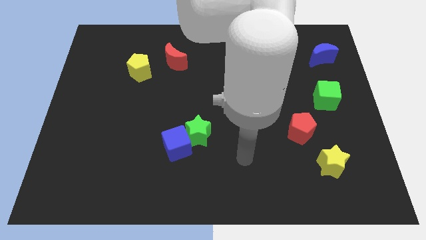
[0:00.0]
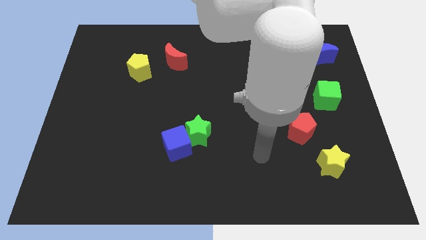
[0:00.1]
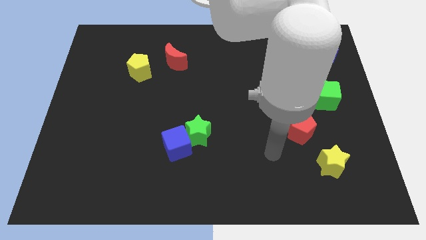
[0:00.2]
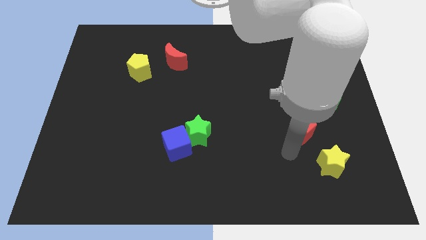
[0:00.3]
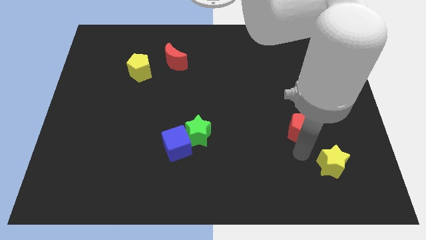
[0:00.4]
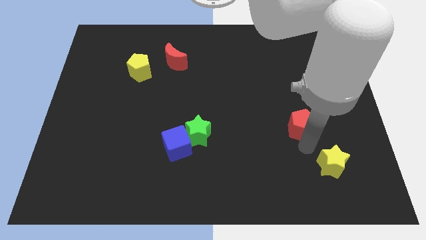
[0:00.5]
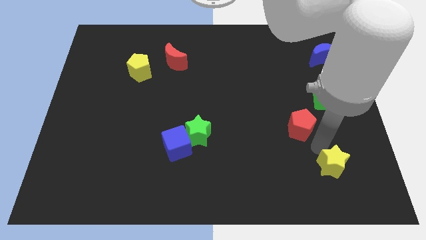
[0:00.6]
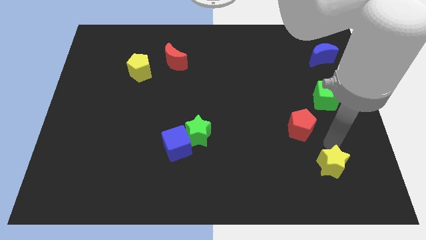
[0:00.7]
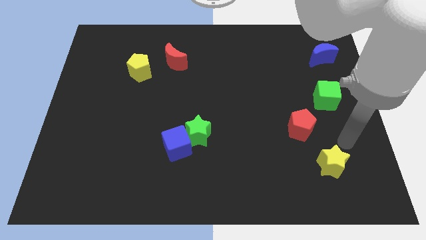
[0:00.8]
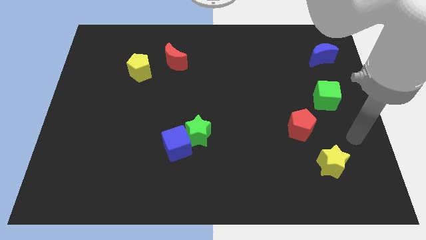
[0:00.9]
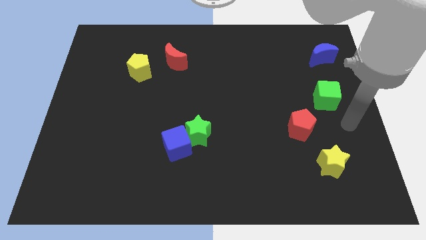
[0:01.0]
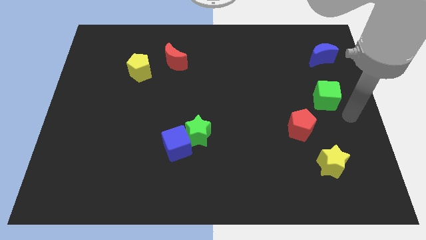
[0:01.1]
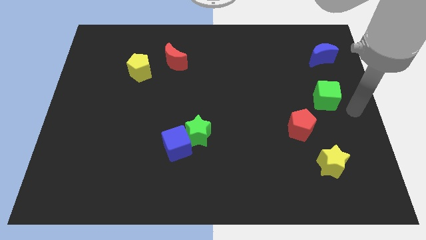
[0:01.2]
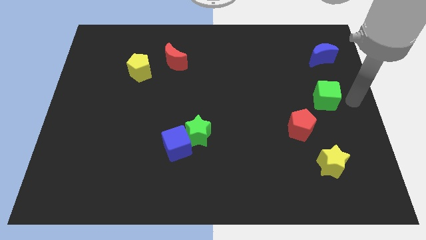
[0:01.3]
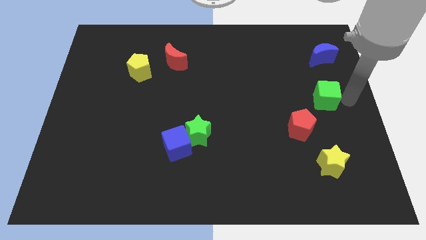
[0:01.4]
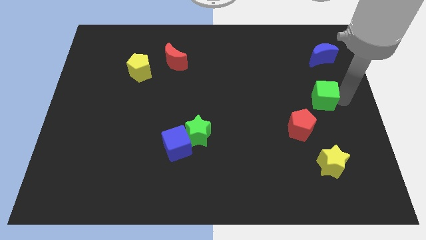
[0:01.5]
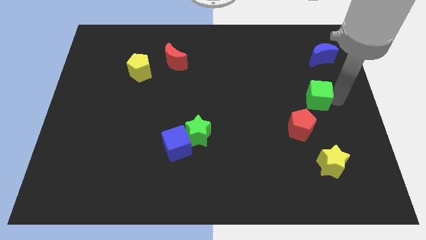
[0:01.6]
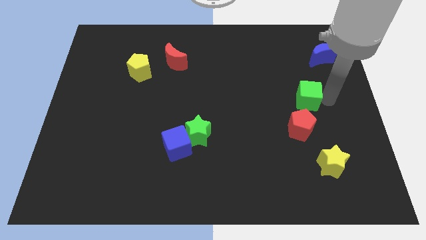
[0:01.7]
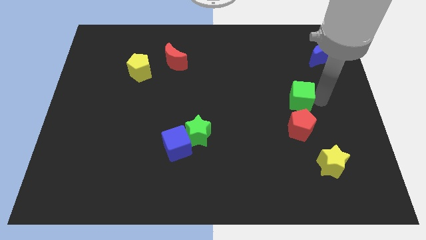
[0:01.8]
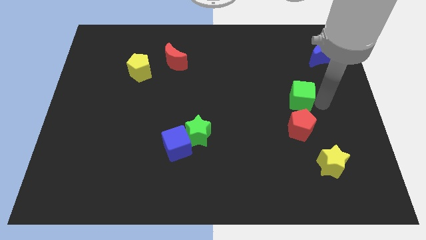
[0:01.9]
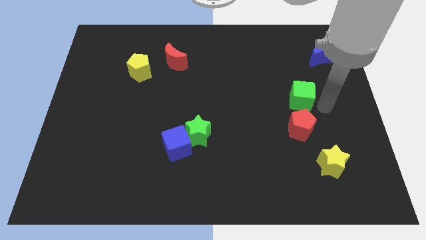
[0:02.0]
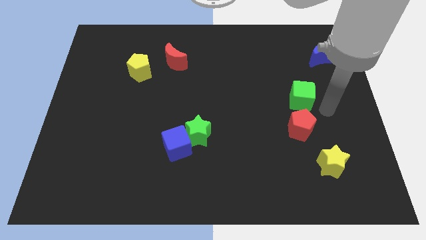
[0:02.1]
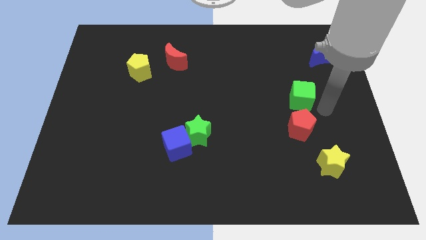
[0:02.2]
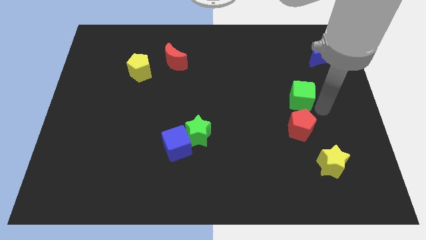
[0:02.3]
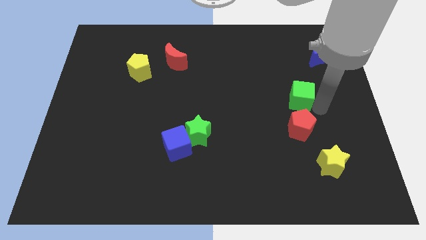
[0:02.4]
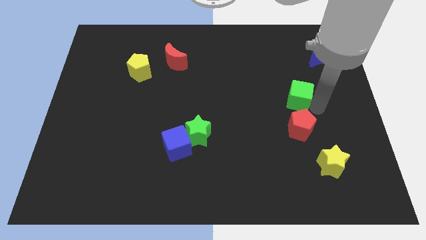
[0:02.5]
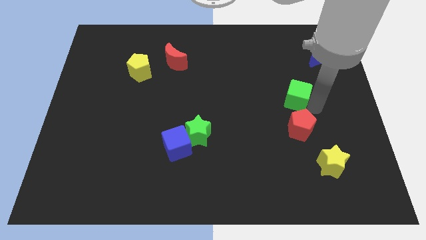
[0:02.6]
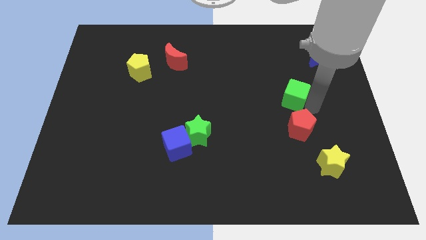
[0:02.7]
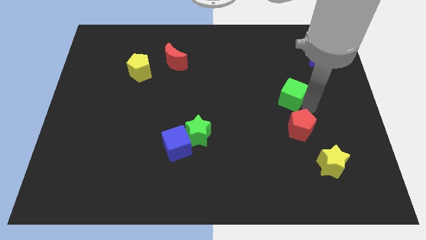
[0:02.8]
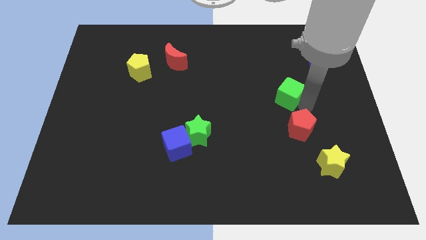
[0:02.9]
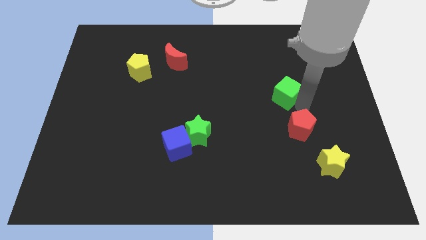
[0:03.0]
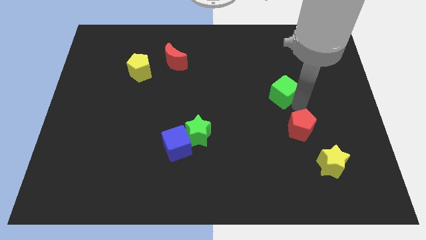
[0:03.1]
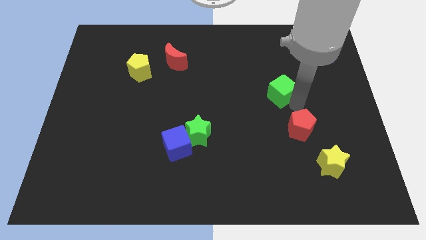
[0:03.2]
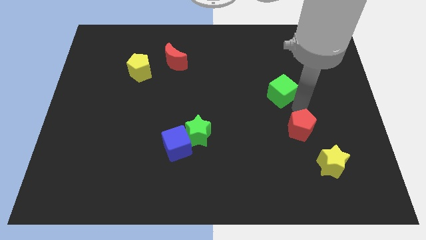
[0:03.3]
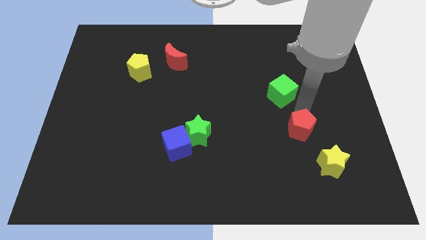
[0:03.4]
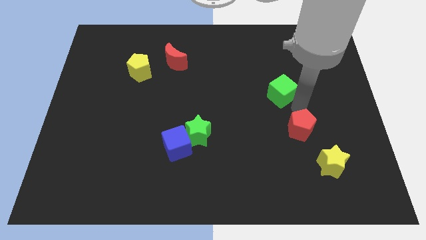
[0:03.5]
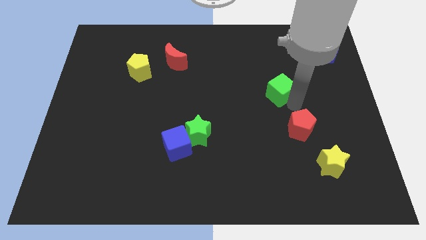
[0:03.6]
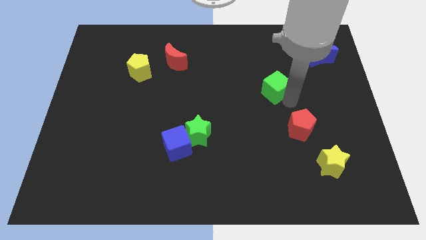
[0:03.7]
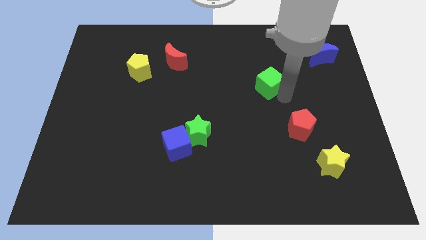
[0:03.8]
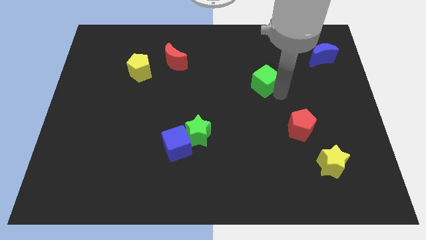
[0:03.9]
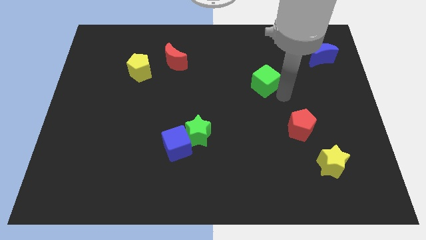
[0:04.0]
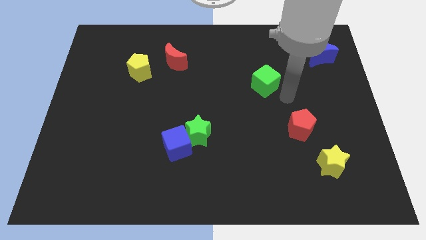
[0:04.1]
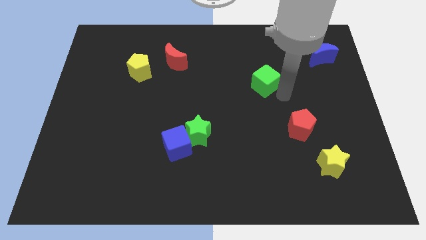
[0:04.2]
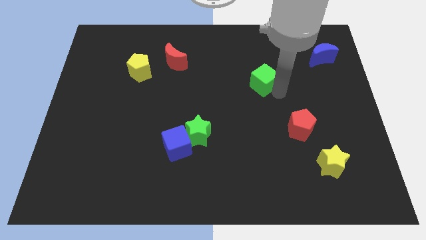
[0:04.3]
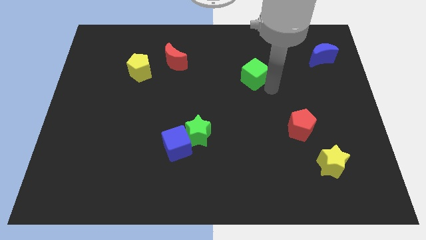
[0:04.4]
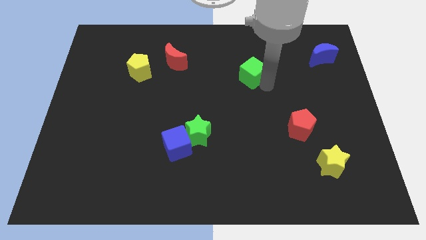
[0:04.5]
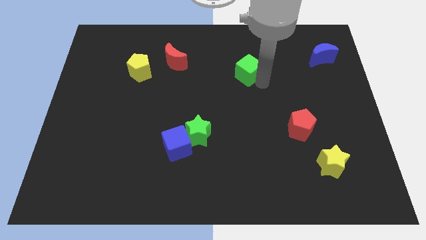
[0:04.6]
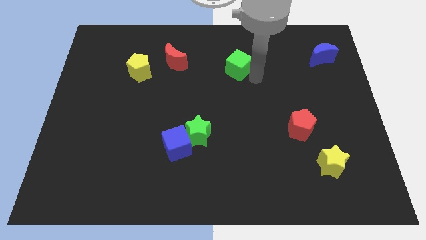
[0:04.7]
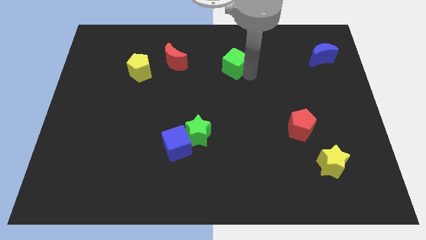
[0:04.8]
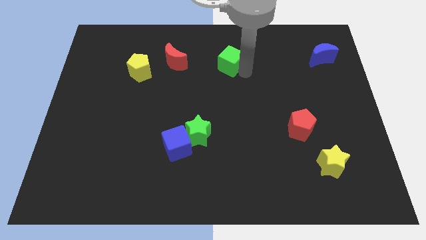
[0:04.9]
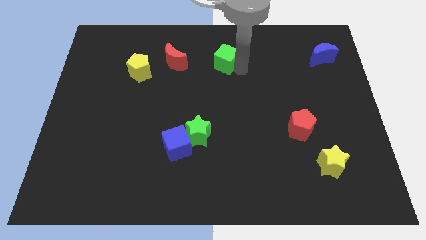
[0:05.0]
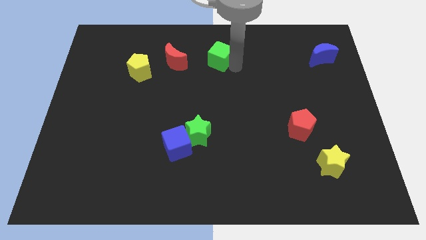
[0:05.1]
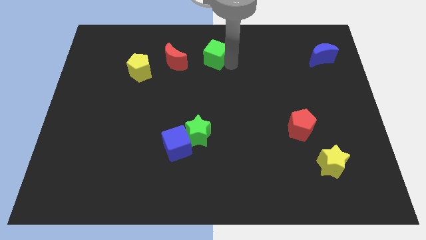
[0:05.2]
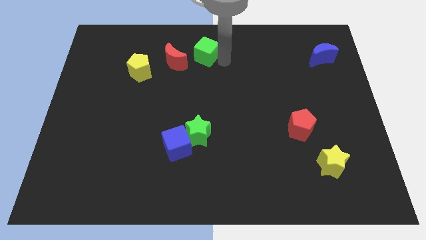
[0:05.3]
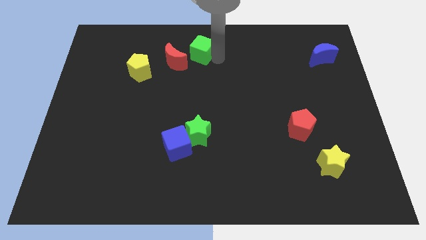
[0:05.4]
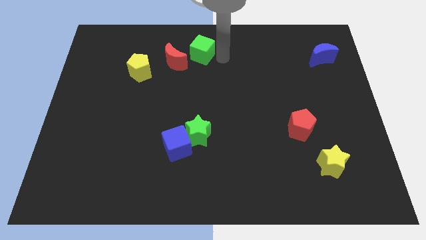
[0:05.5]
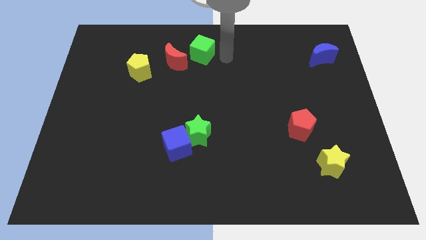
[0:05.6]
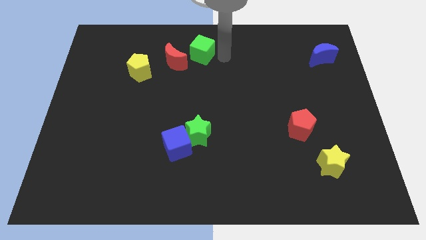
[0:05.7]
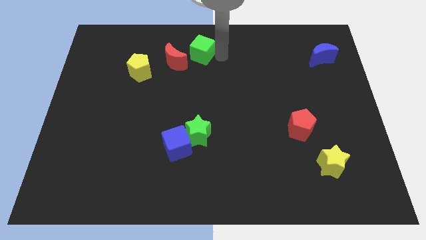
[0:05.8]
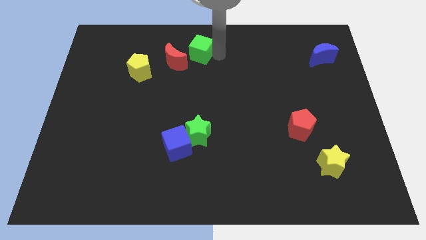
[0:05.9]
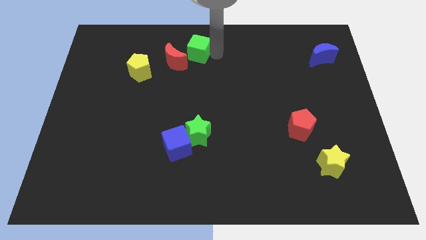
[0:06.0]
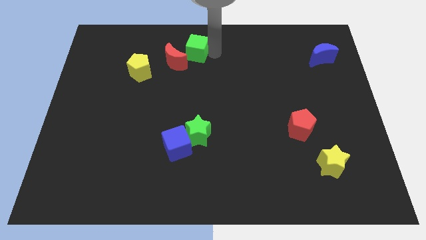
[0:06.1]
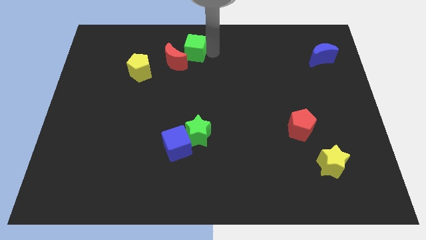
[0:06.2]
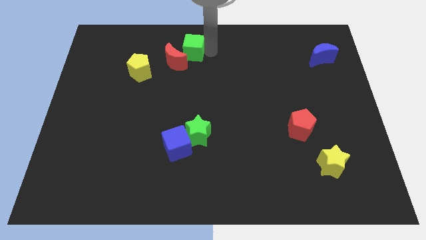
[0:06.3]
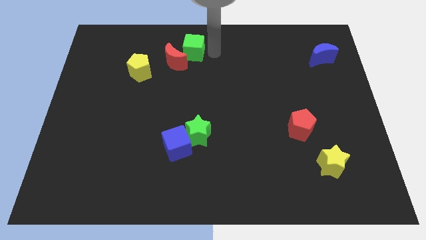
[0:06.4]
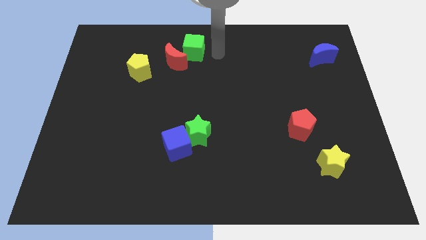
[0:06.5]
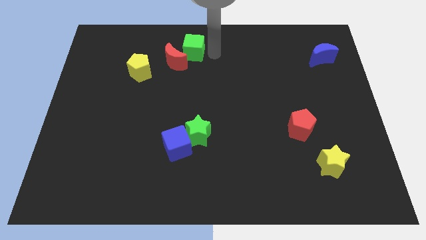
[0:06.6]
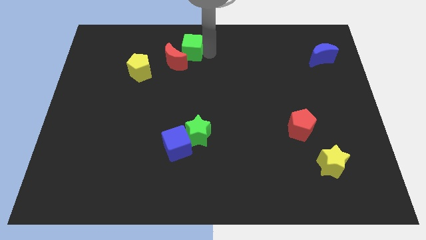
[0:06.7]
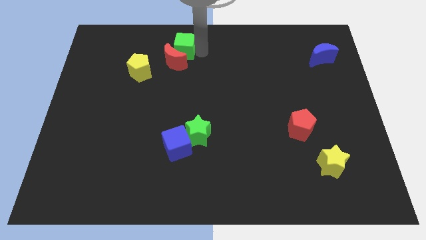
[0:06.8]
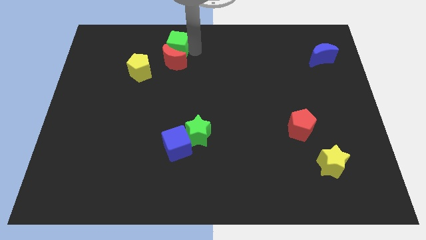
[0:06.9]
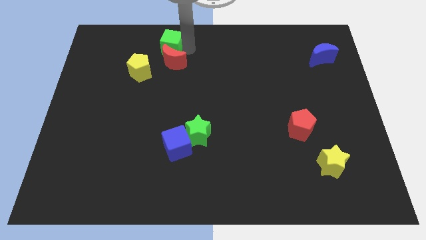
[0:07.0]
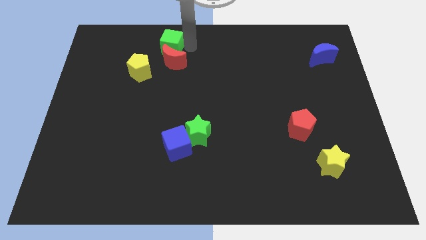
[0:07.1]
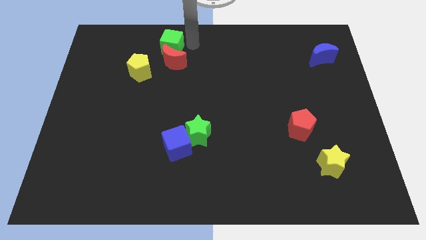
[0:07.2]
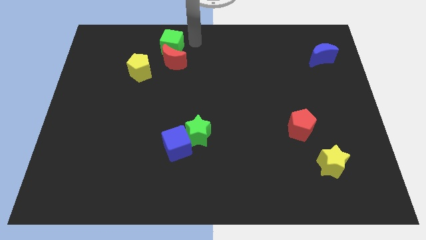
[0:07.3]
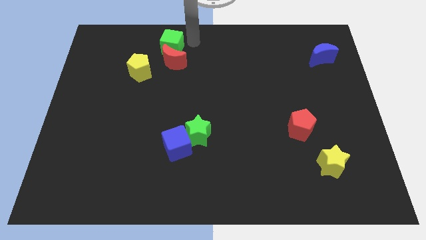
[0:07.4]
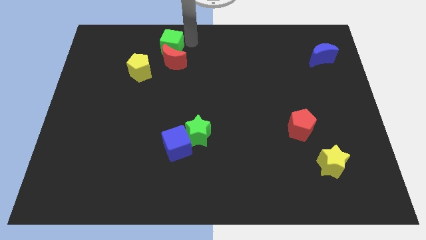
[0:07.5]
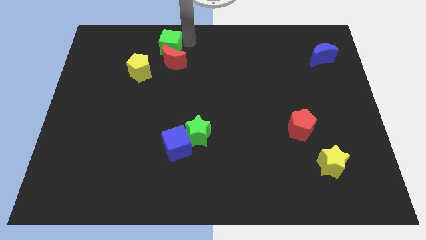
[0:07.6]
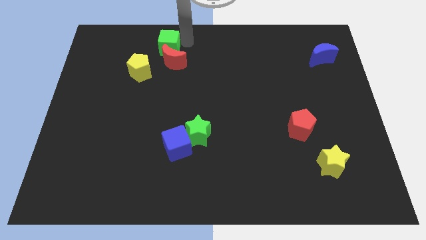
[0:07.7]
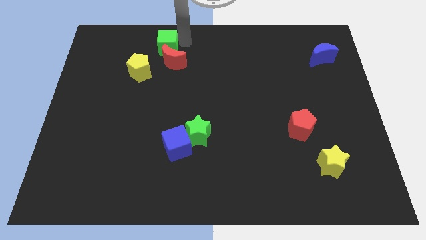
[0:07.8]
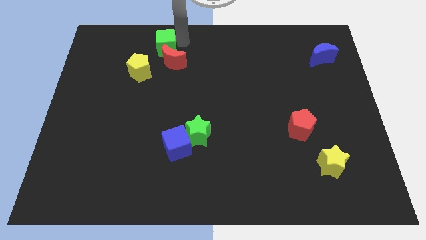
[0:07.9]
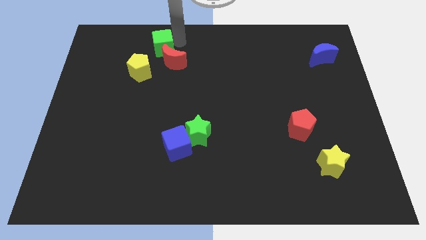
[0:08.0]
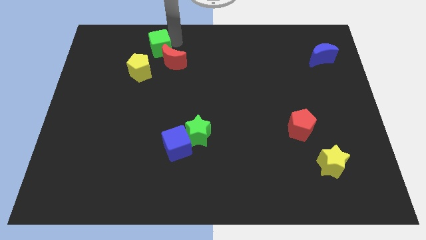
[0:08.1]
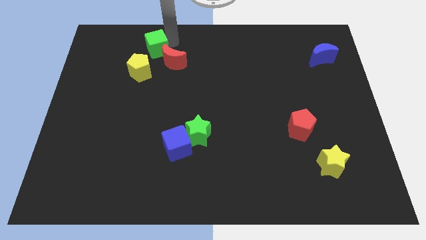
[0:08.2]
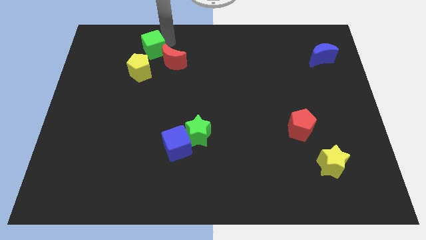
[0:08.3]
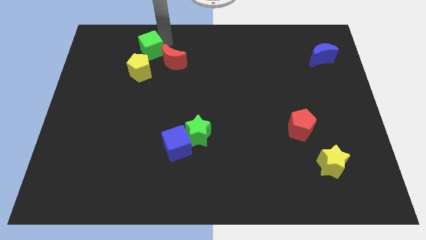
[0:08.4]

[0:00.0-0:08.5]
push the green cube left of the red moon
